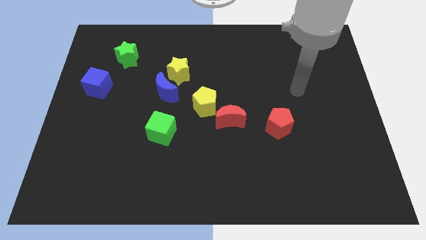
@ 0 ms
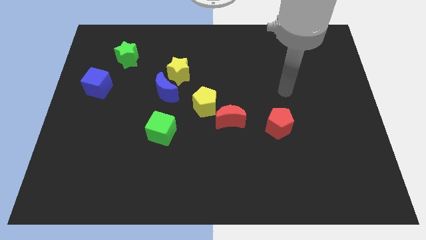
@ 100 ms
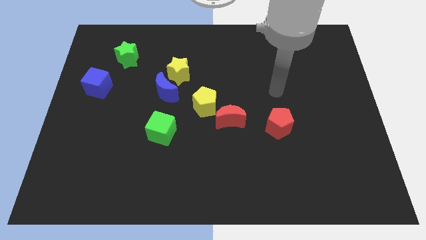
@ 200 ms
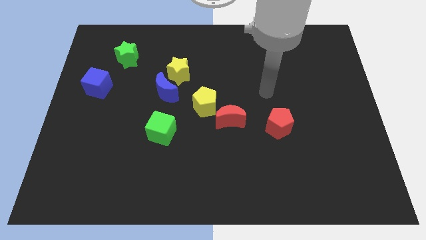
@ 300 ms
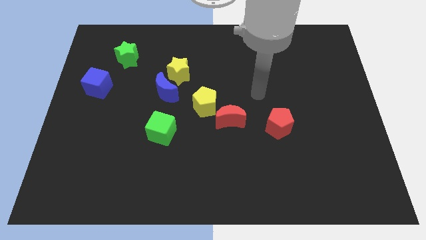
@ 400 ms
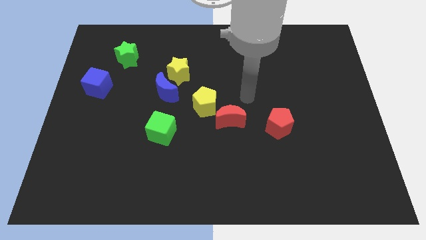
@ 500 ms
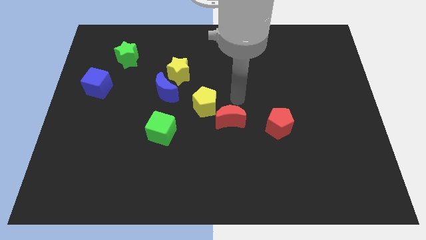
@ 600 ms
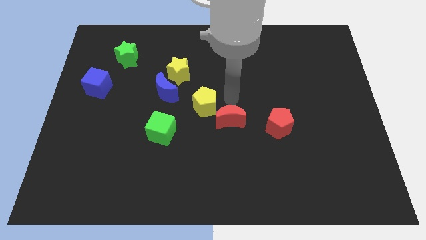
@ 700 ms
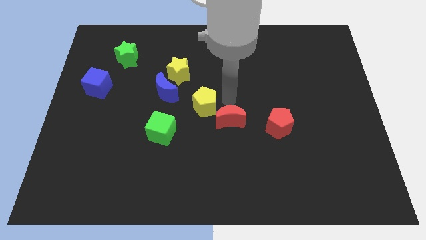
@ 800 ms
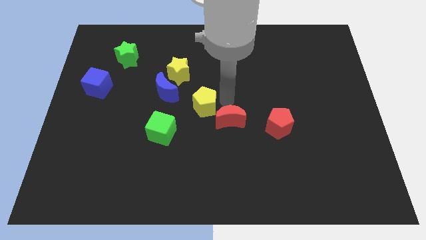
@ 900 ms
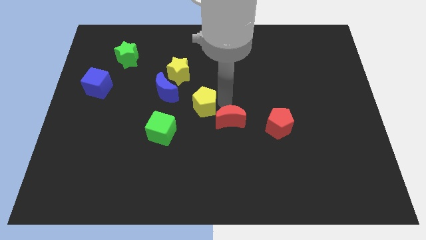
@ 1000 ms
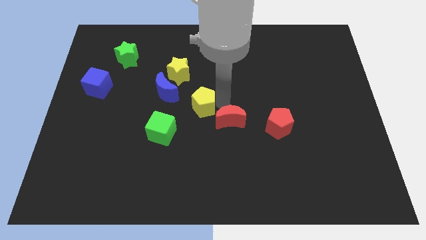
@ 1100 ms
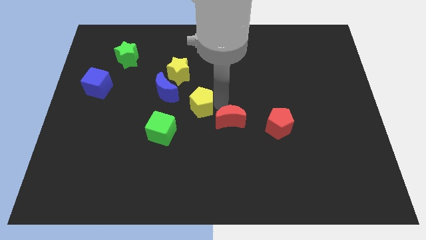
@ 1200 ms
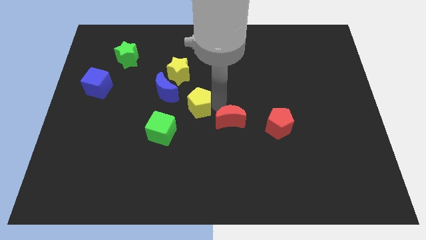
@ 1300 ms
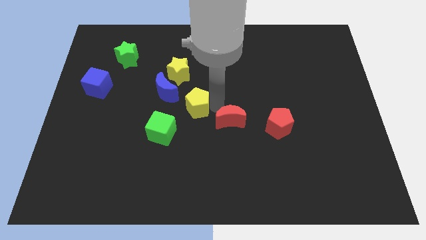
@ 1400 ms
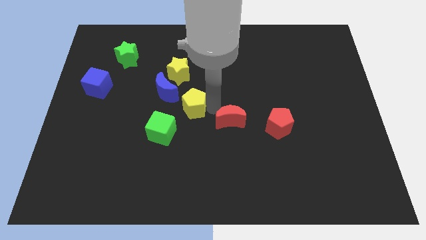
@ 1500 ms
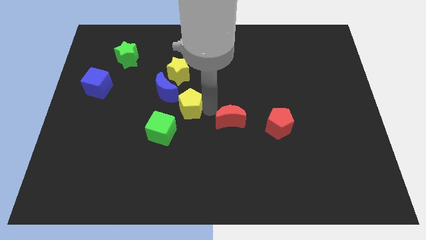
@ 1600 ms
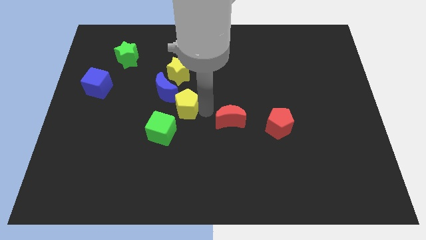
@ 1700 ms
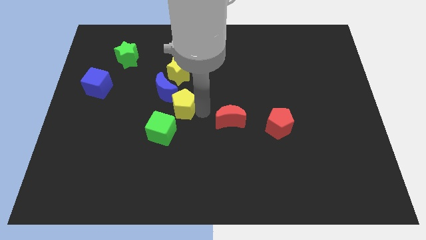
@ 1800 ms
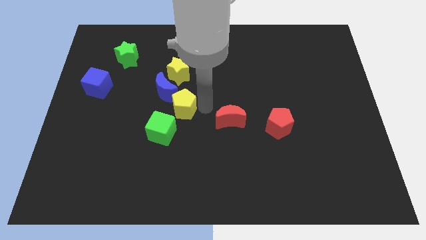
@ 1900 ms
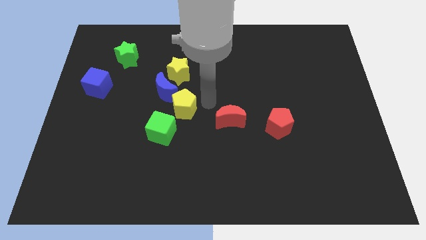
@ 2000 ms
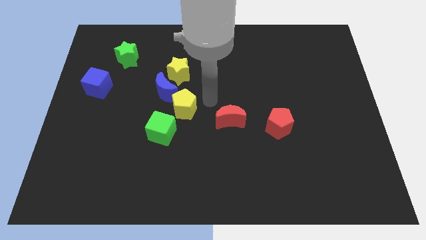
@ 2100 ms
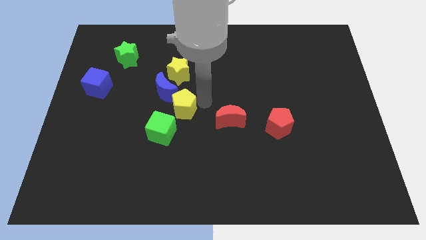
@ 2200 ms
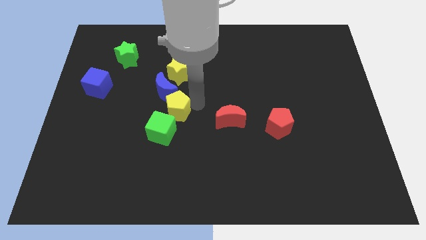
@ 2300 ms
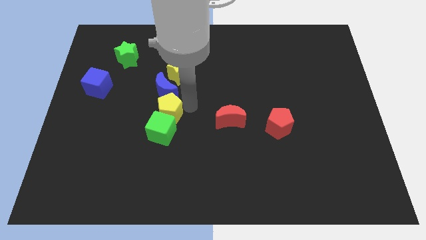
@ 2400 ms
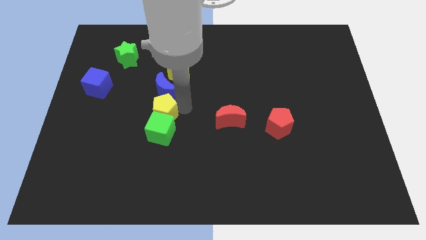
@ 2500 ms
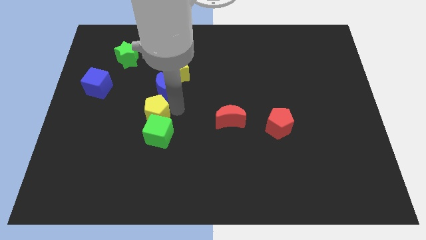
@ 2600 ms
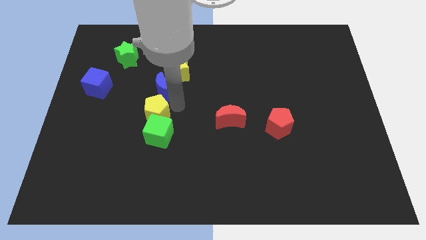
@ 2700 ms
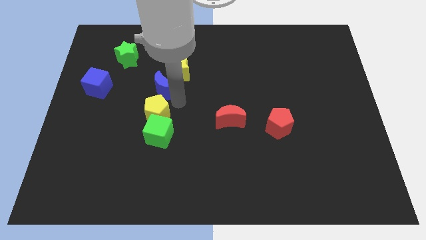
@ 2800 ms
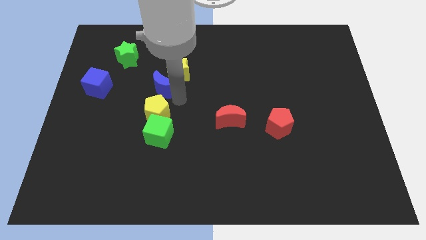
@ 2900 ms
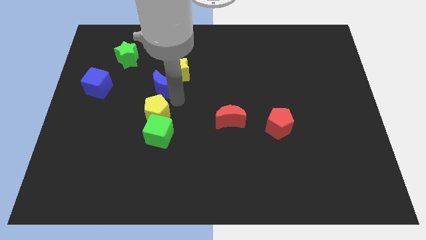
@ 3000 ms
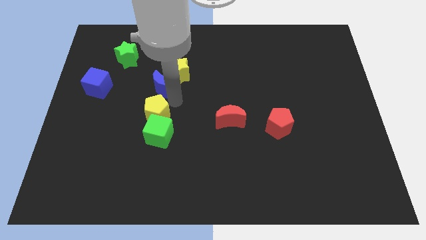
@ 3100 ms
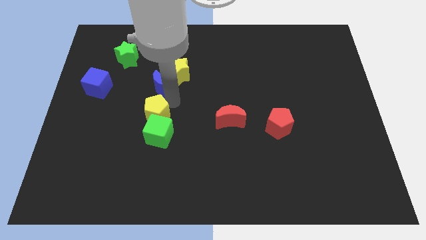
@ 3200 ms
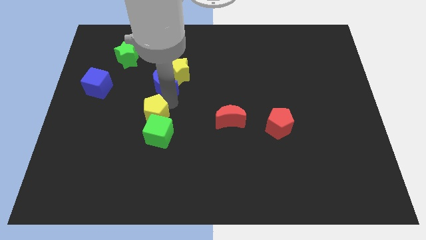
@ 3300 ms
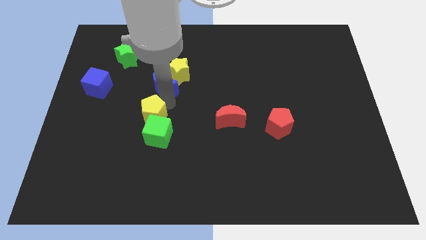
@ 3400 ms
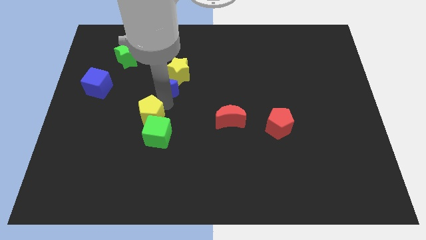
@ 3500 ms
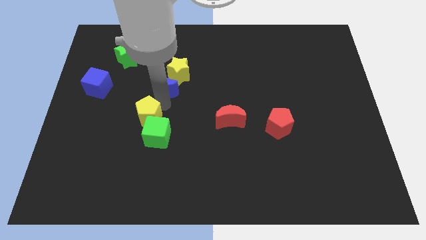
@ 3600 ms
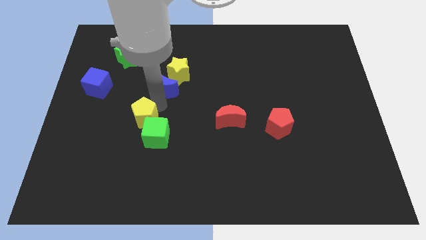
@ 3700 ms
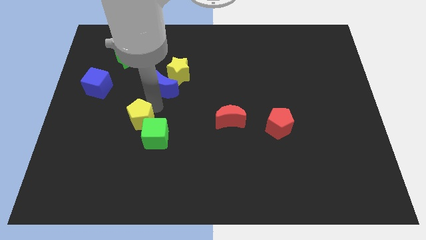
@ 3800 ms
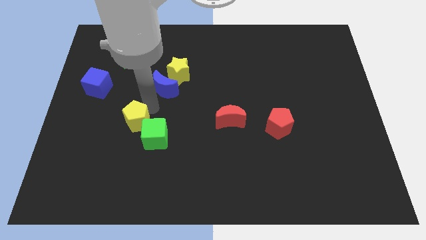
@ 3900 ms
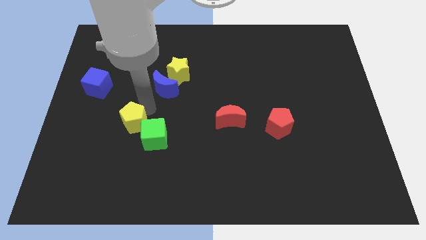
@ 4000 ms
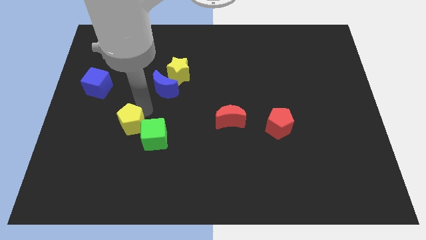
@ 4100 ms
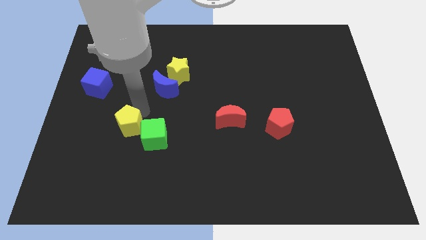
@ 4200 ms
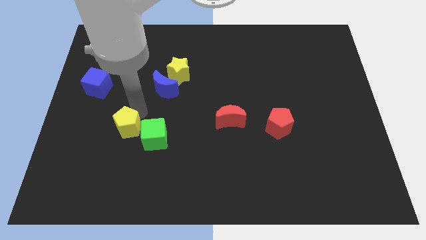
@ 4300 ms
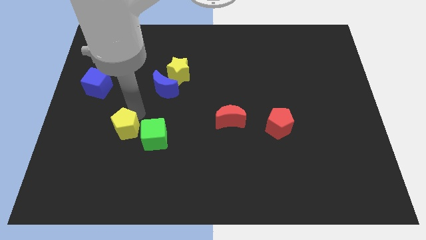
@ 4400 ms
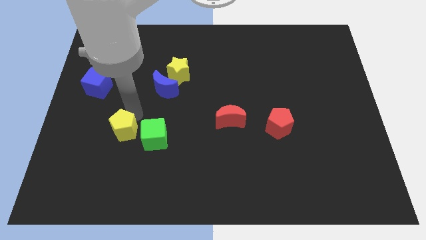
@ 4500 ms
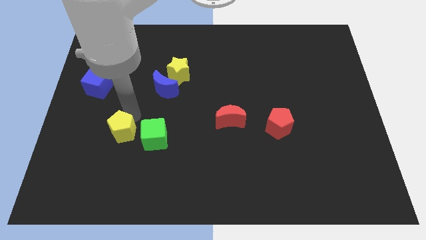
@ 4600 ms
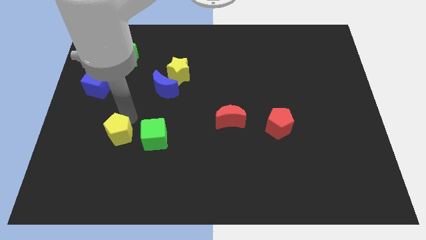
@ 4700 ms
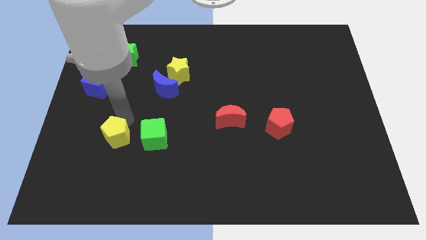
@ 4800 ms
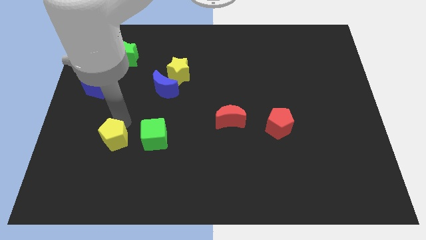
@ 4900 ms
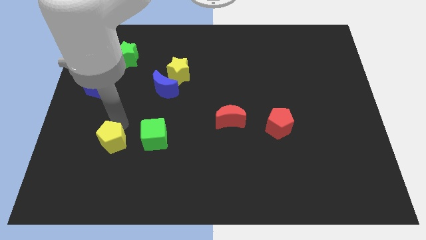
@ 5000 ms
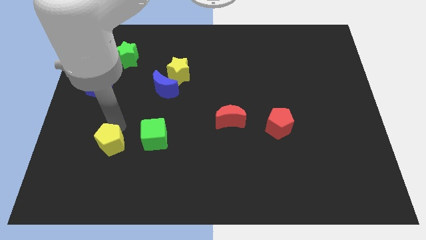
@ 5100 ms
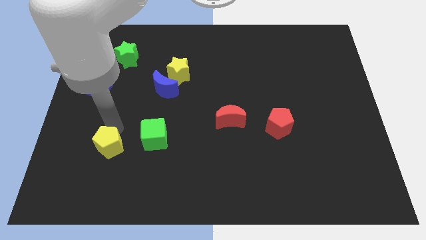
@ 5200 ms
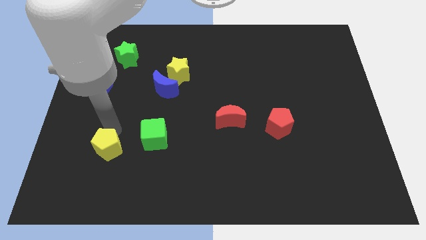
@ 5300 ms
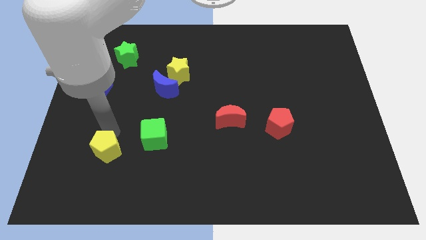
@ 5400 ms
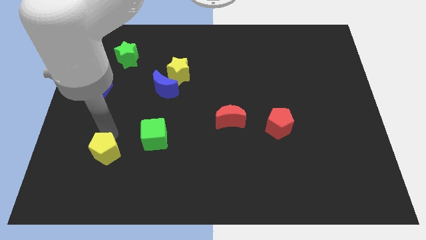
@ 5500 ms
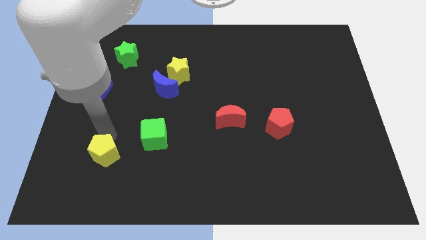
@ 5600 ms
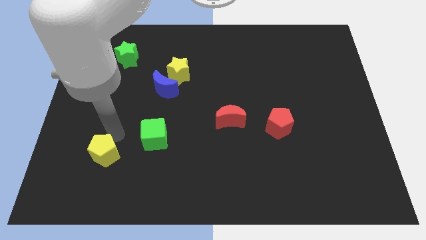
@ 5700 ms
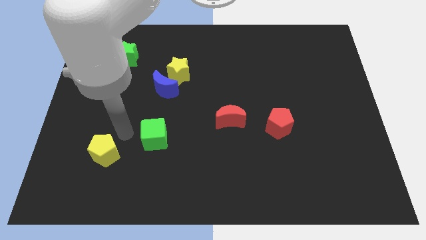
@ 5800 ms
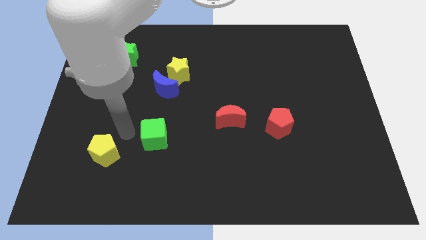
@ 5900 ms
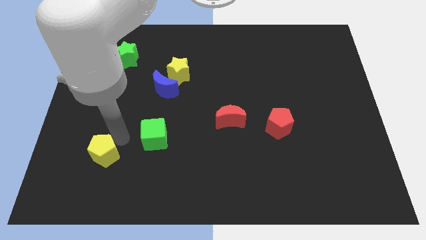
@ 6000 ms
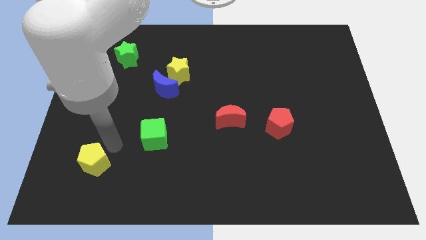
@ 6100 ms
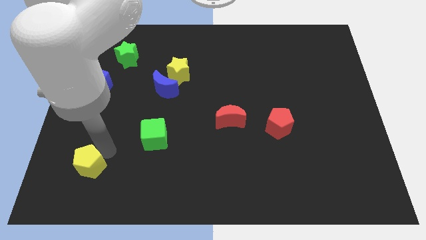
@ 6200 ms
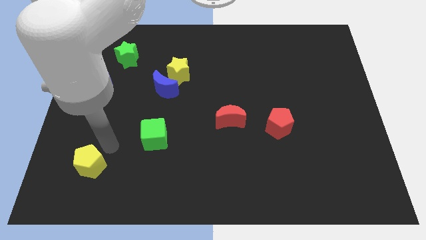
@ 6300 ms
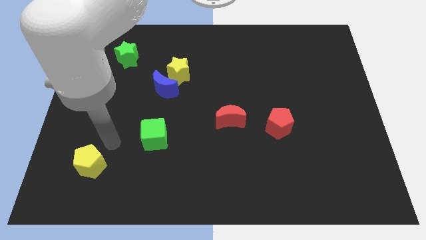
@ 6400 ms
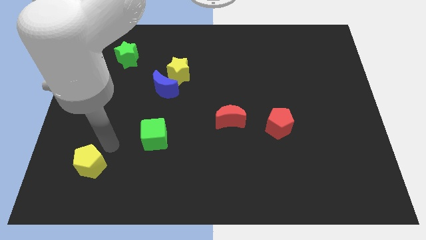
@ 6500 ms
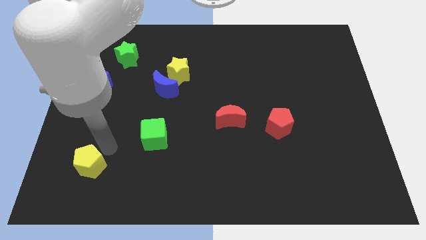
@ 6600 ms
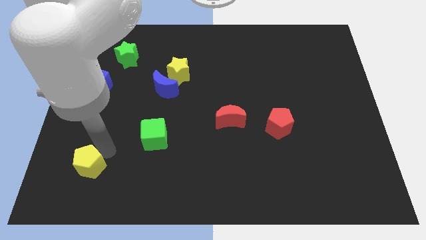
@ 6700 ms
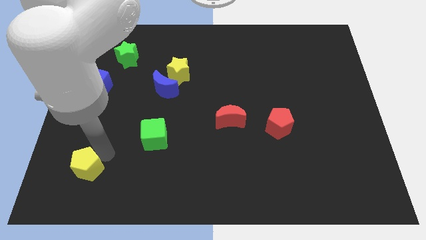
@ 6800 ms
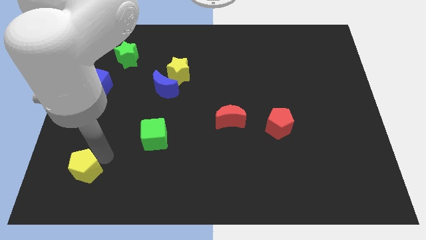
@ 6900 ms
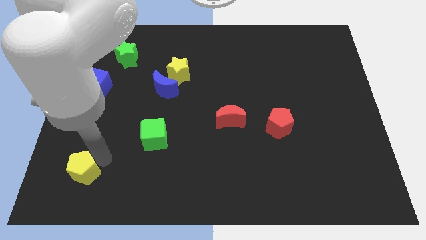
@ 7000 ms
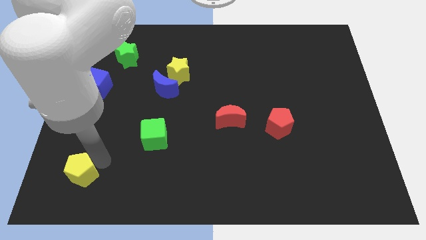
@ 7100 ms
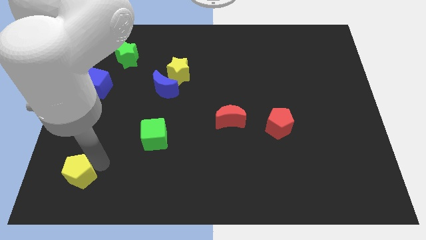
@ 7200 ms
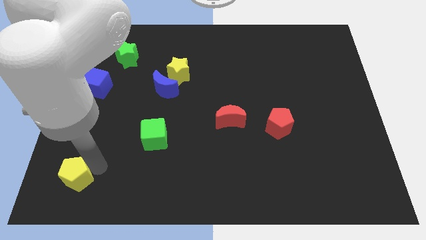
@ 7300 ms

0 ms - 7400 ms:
move the yellow pentagon to the bottom left
